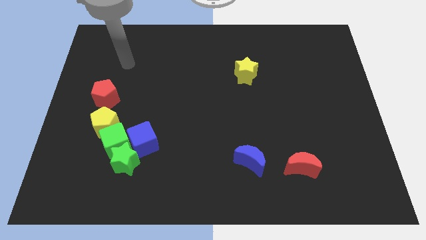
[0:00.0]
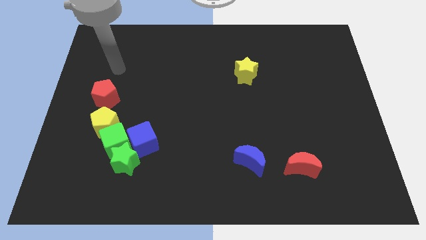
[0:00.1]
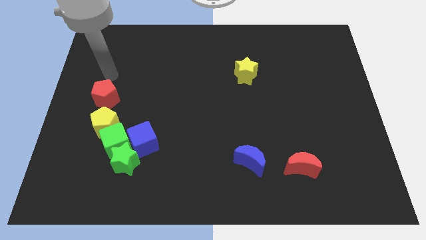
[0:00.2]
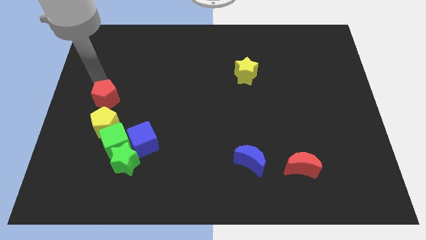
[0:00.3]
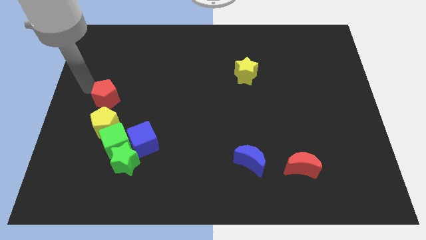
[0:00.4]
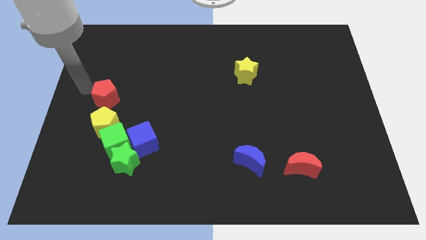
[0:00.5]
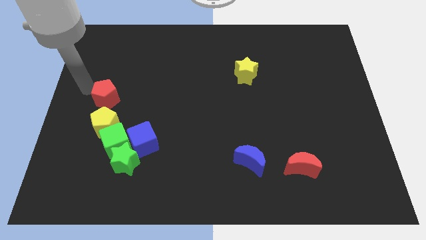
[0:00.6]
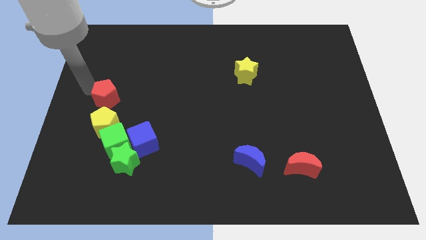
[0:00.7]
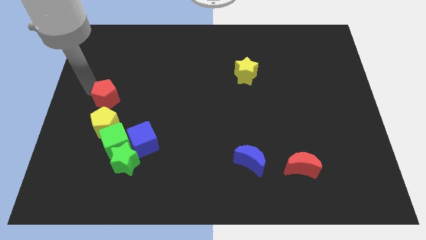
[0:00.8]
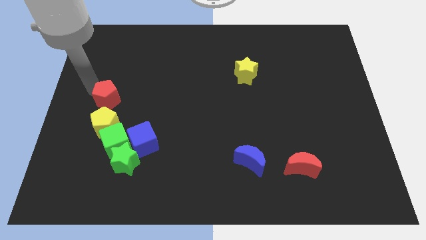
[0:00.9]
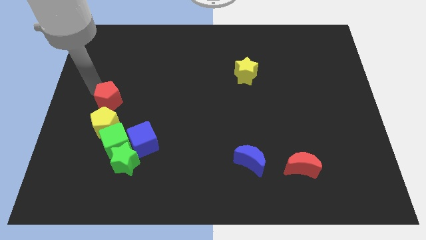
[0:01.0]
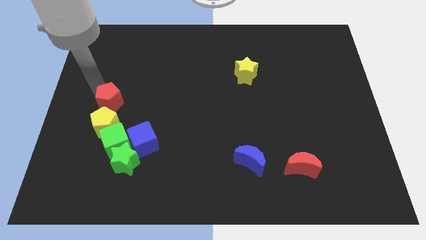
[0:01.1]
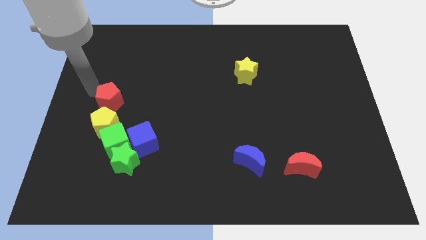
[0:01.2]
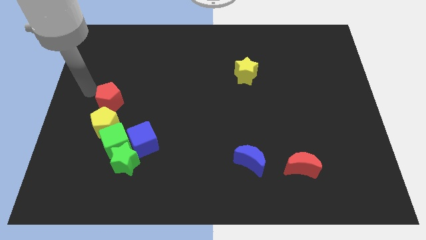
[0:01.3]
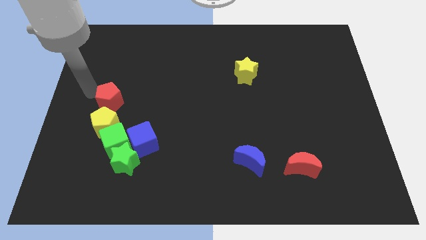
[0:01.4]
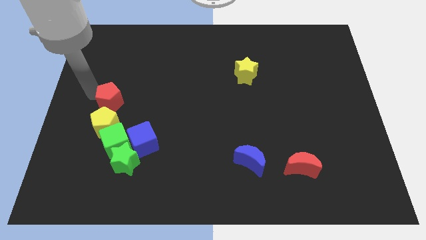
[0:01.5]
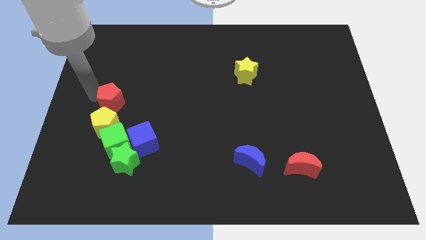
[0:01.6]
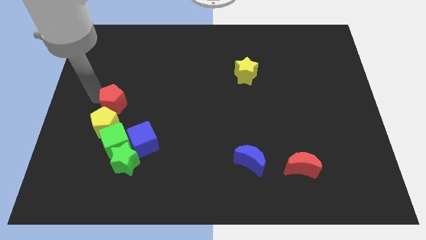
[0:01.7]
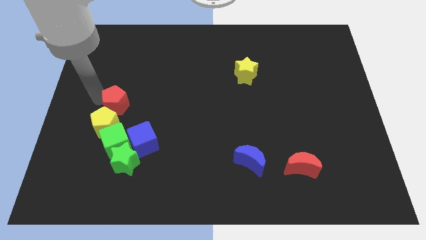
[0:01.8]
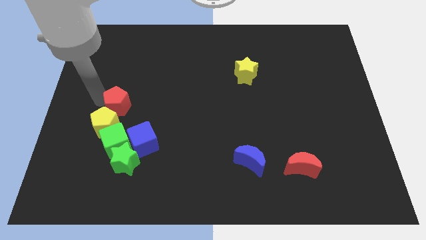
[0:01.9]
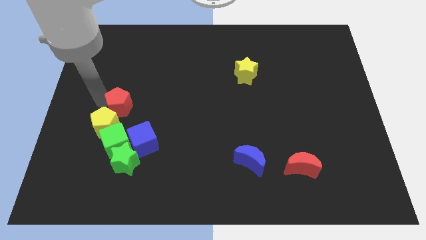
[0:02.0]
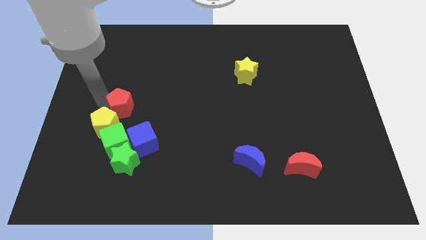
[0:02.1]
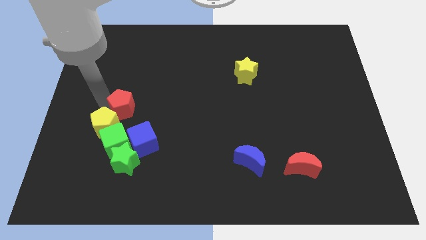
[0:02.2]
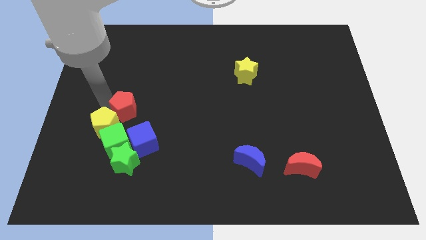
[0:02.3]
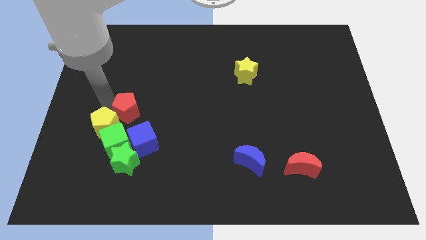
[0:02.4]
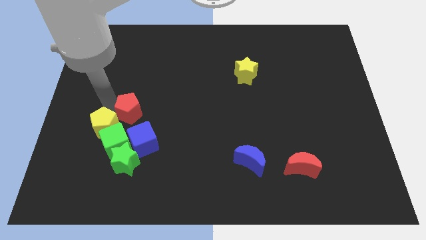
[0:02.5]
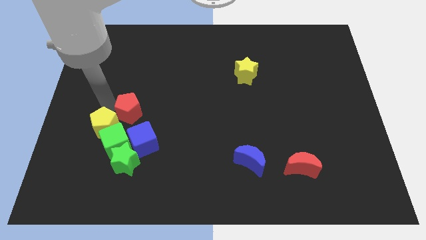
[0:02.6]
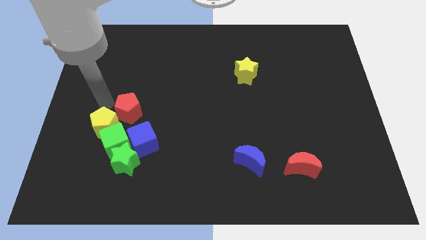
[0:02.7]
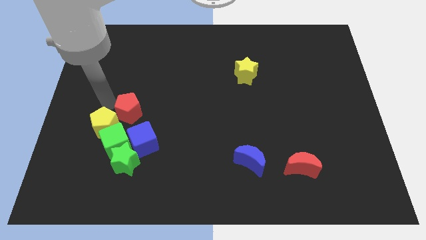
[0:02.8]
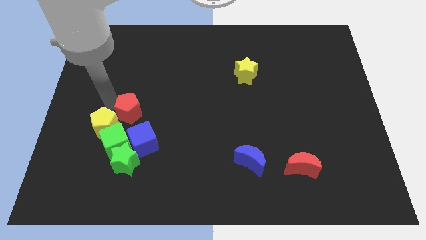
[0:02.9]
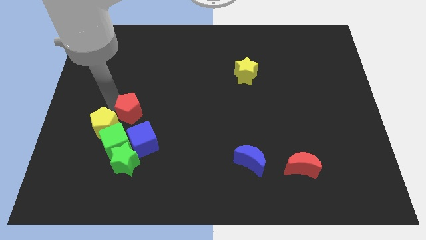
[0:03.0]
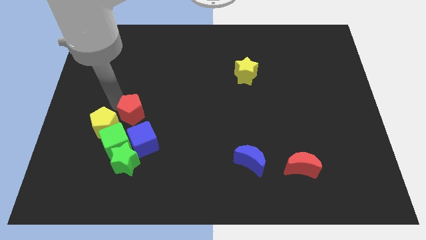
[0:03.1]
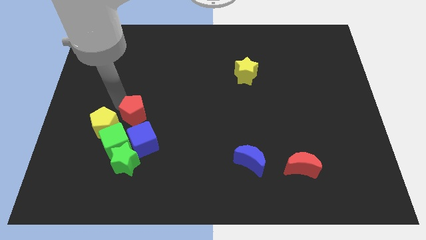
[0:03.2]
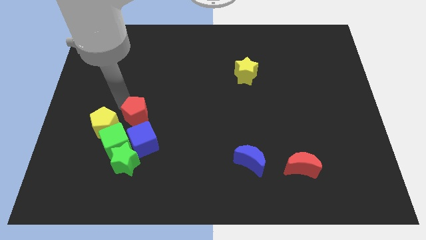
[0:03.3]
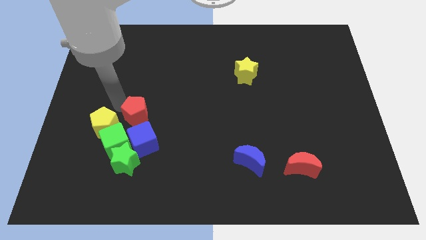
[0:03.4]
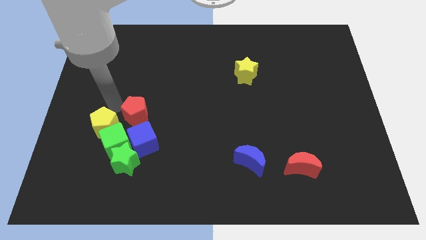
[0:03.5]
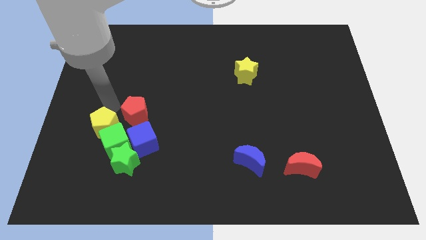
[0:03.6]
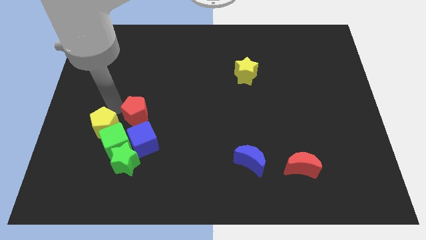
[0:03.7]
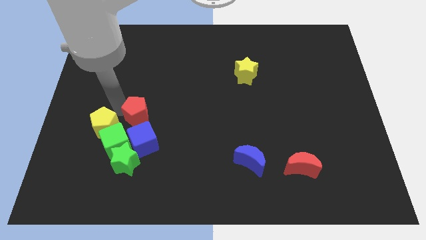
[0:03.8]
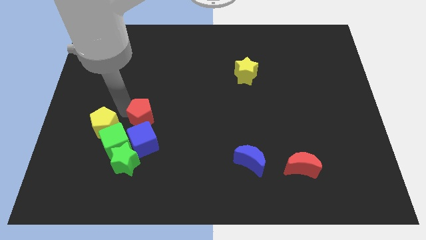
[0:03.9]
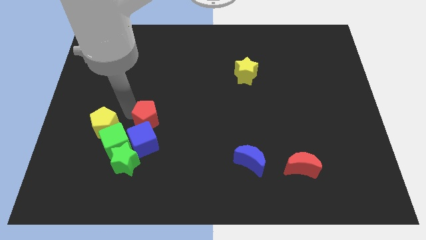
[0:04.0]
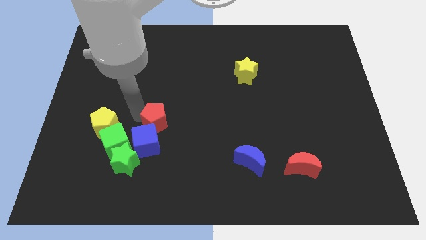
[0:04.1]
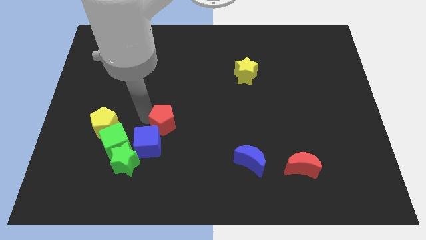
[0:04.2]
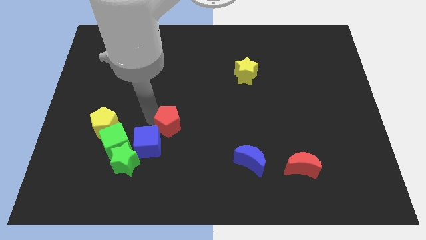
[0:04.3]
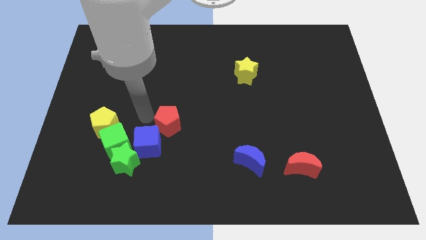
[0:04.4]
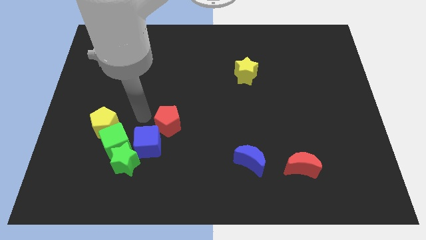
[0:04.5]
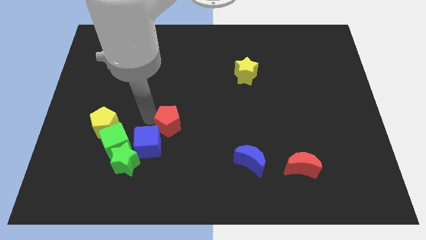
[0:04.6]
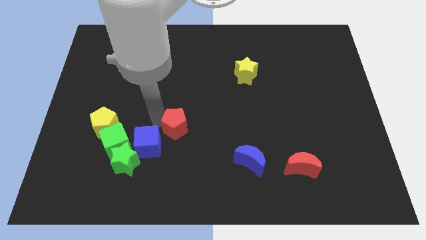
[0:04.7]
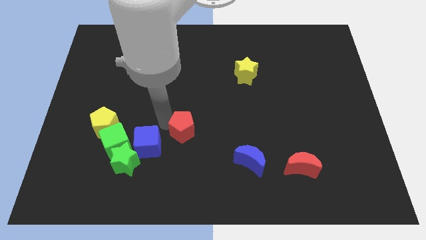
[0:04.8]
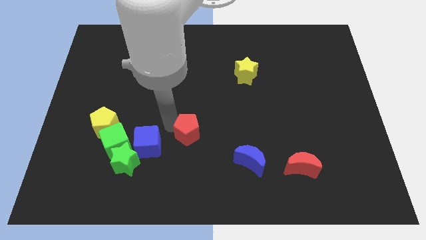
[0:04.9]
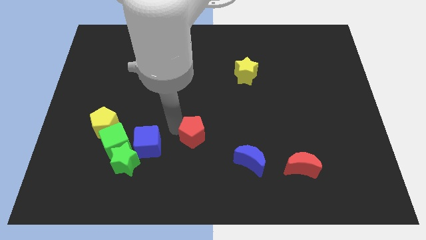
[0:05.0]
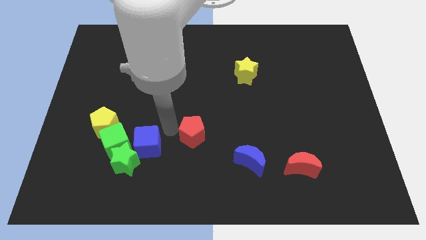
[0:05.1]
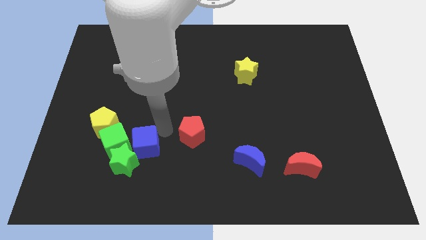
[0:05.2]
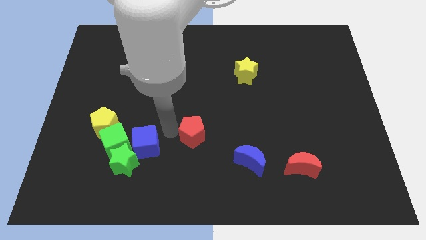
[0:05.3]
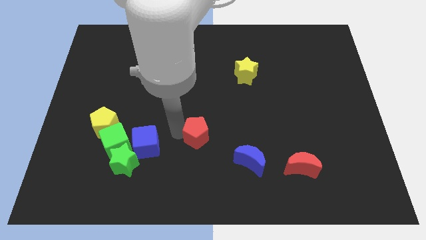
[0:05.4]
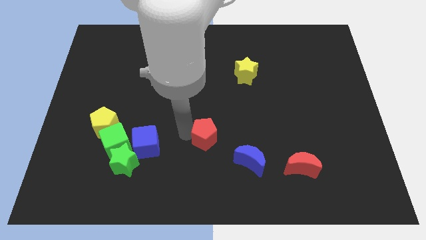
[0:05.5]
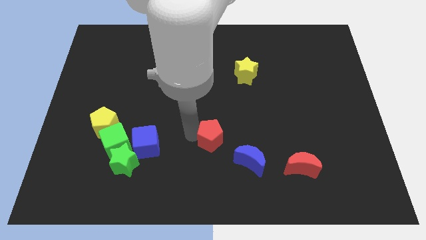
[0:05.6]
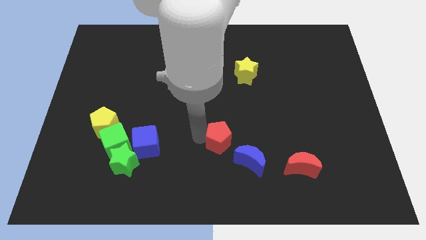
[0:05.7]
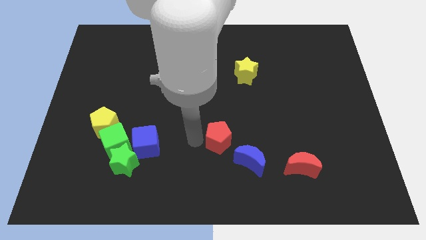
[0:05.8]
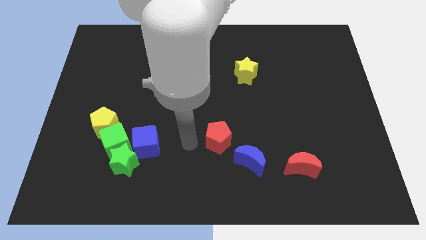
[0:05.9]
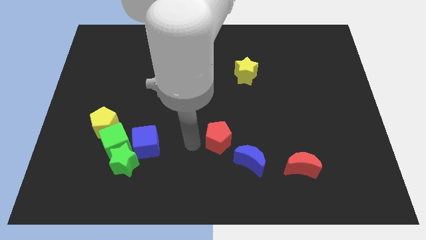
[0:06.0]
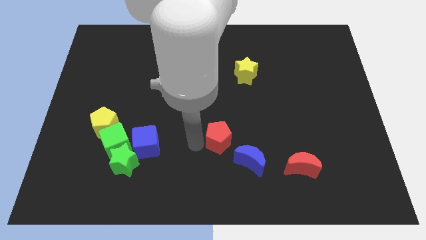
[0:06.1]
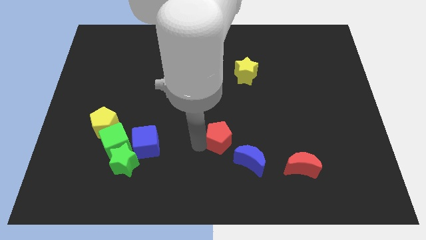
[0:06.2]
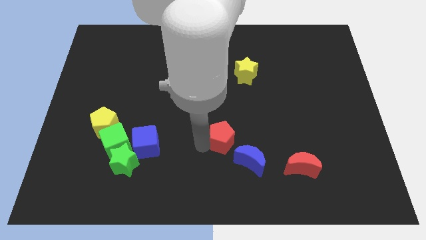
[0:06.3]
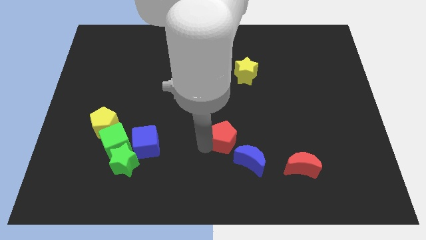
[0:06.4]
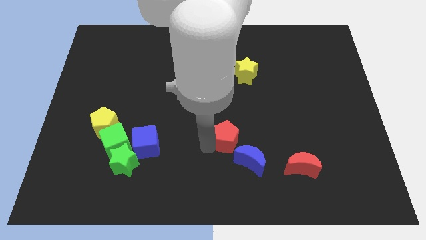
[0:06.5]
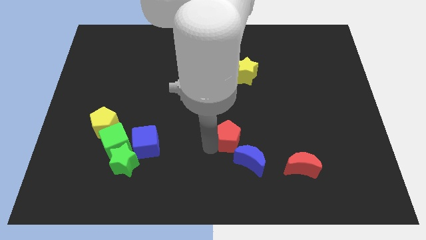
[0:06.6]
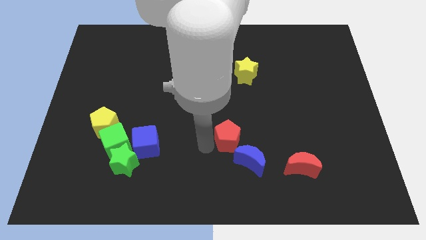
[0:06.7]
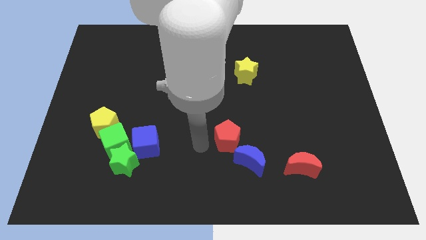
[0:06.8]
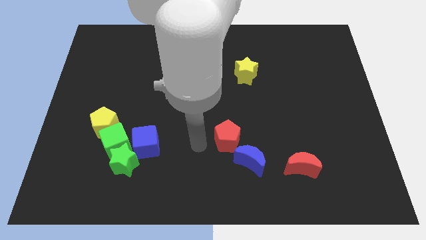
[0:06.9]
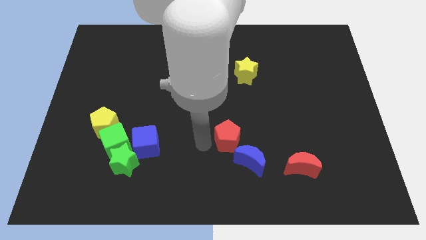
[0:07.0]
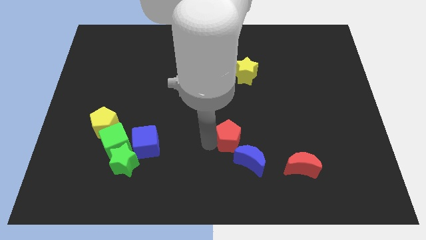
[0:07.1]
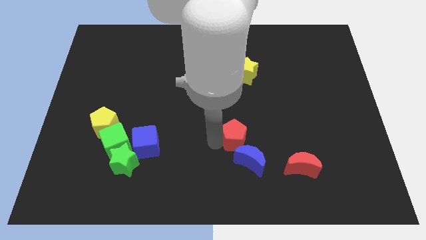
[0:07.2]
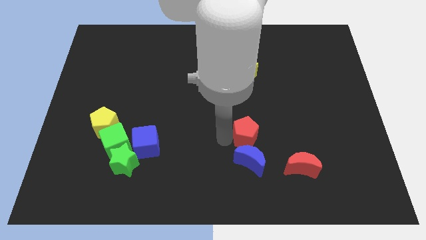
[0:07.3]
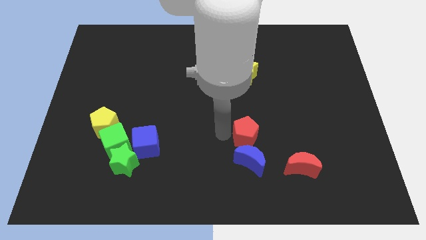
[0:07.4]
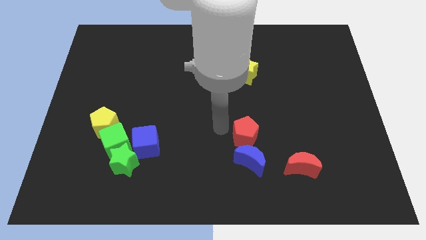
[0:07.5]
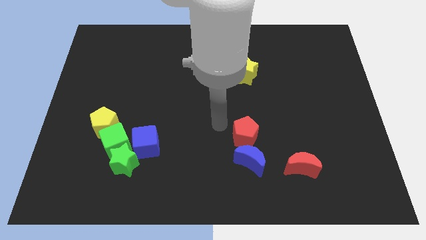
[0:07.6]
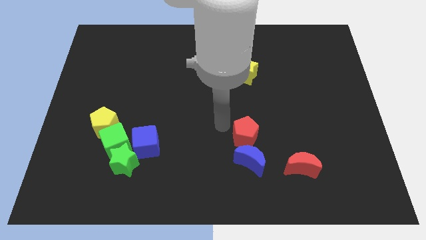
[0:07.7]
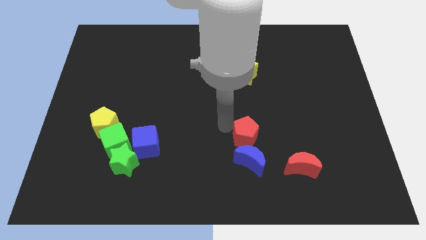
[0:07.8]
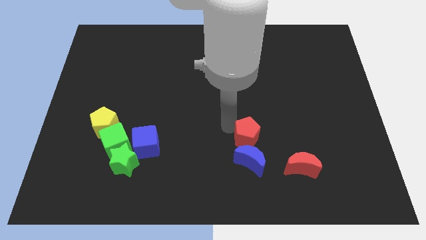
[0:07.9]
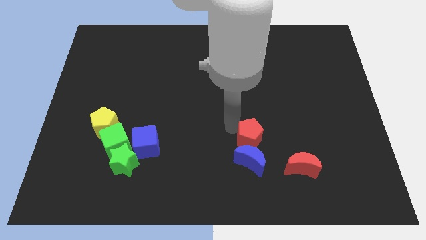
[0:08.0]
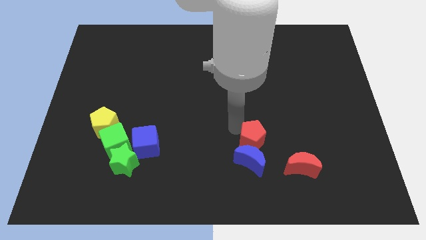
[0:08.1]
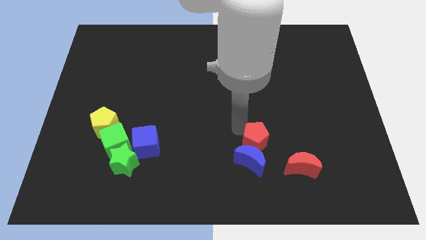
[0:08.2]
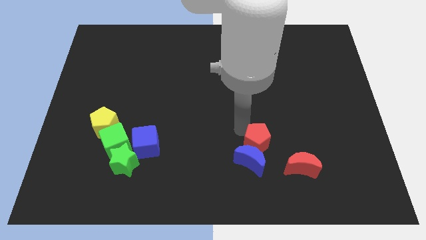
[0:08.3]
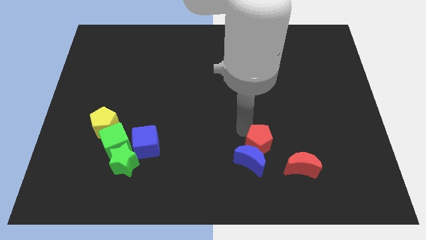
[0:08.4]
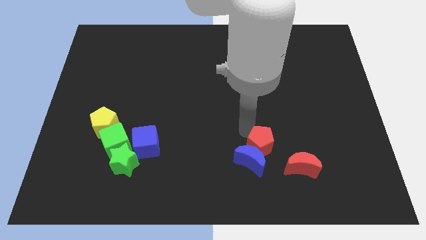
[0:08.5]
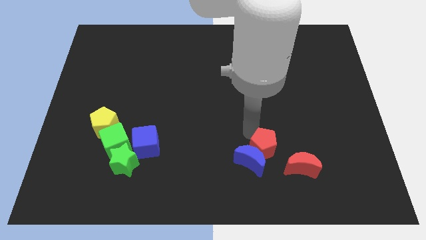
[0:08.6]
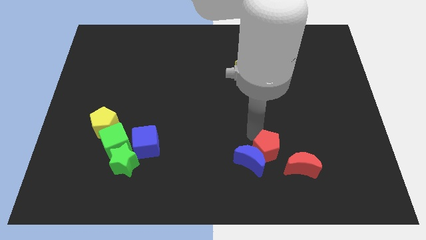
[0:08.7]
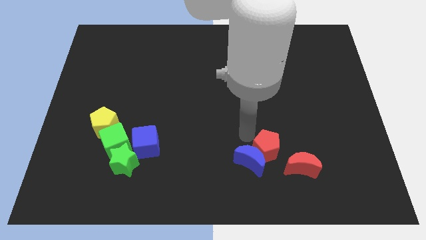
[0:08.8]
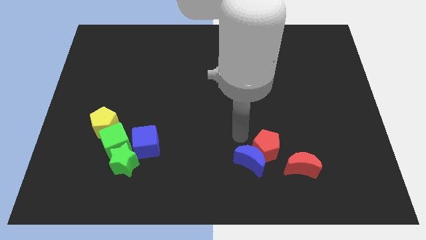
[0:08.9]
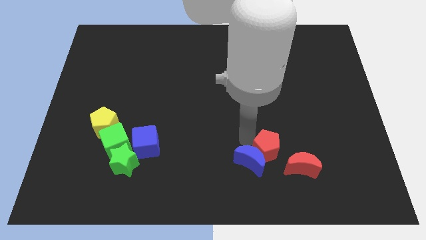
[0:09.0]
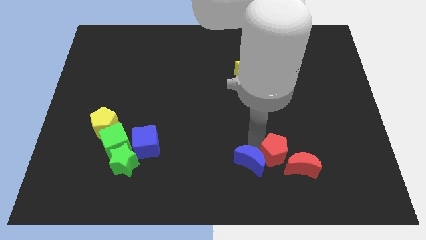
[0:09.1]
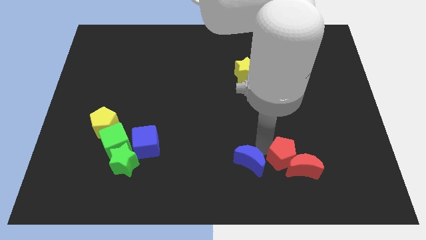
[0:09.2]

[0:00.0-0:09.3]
push the red pentagon next to the red moon
